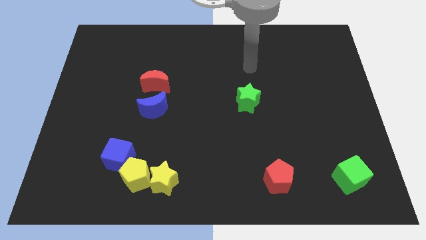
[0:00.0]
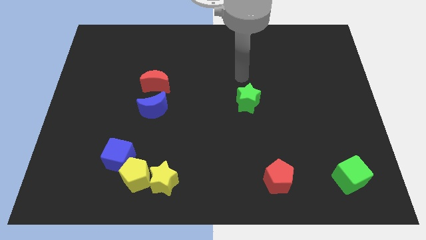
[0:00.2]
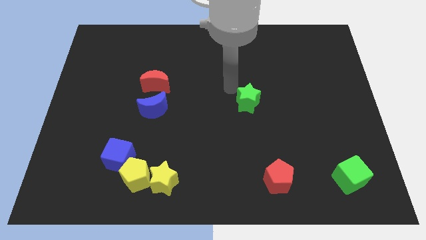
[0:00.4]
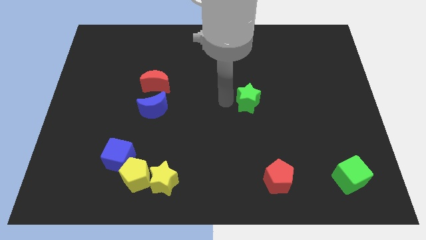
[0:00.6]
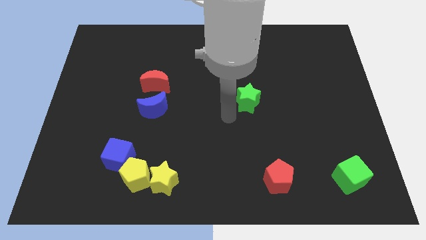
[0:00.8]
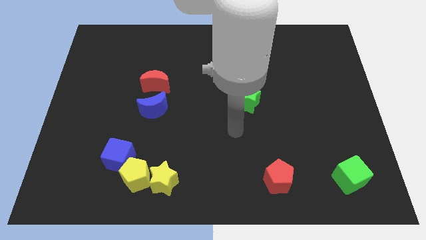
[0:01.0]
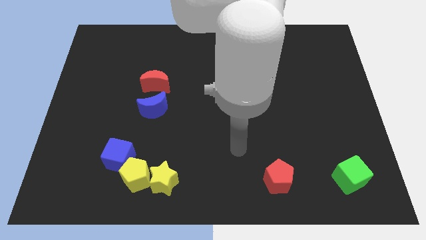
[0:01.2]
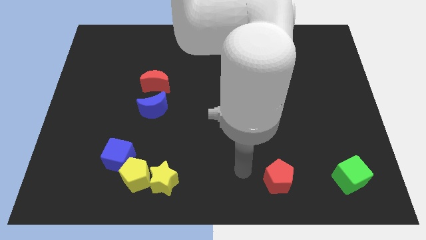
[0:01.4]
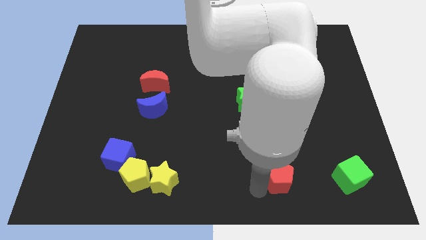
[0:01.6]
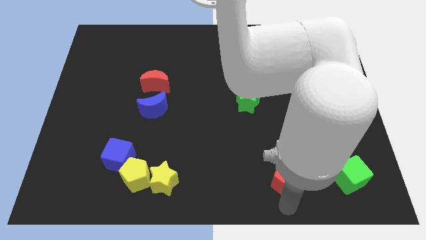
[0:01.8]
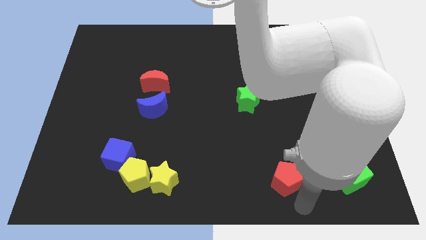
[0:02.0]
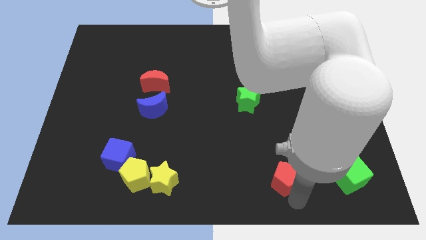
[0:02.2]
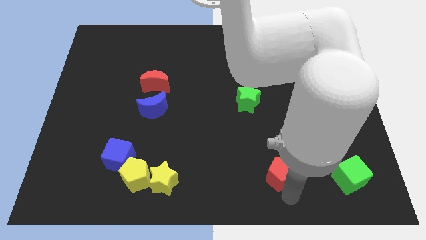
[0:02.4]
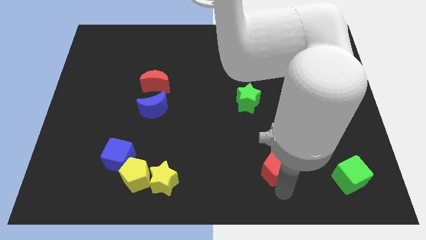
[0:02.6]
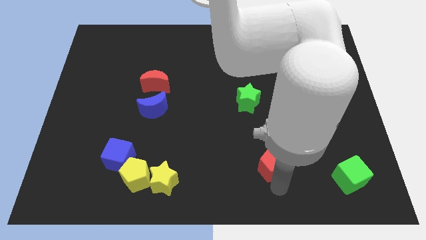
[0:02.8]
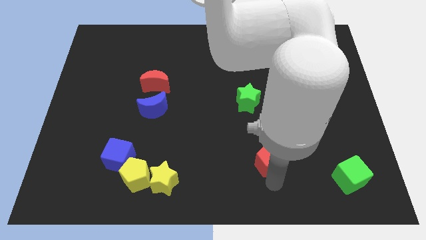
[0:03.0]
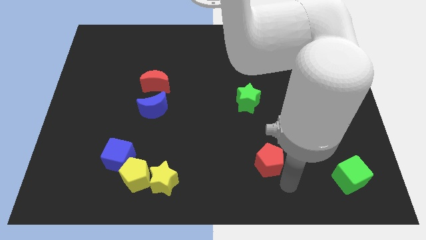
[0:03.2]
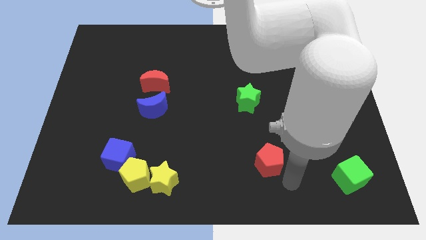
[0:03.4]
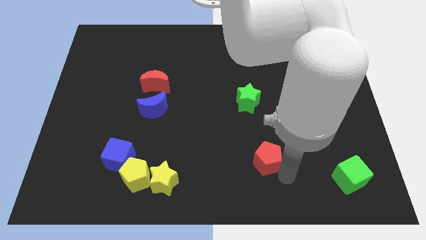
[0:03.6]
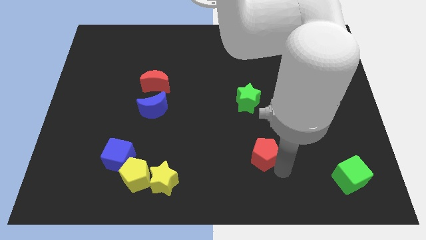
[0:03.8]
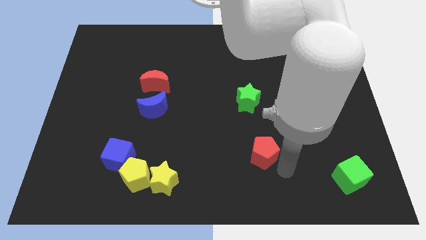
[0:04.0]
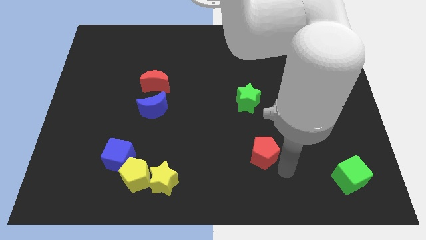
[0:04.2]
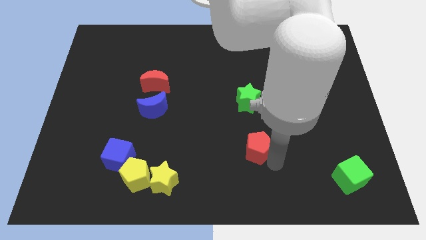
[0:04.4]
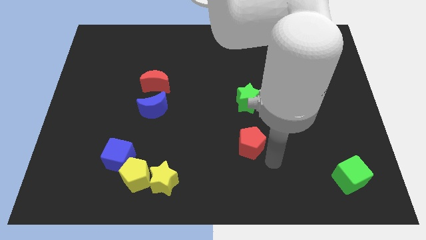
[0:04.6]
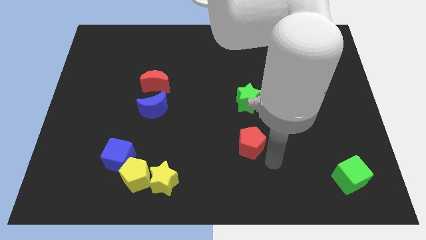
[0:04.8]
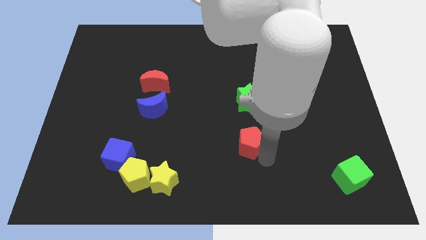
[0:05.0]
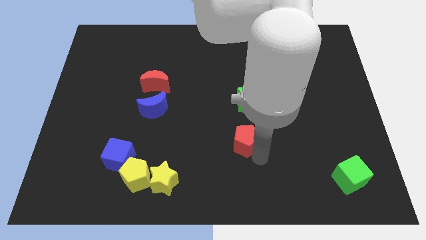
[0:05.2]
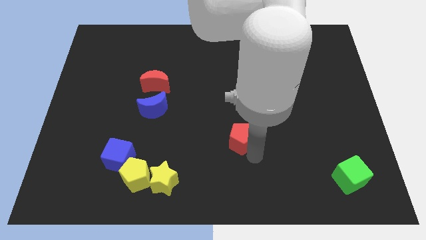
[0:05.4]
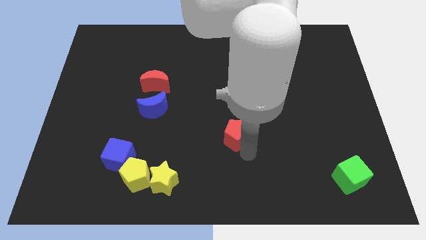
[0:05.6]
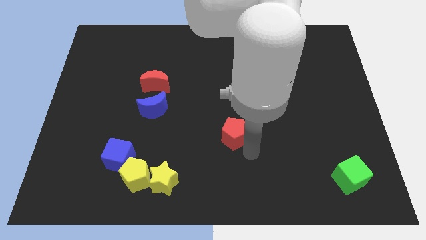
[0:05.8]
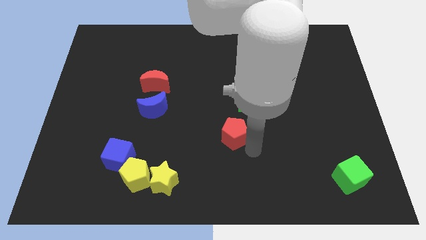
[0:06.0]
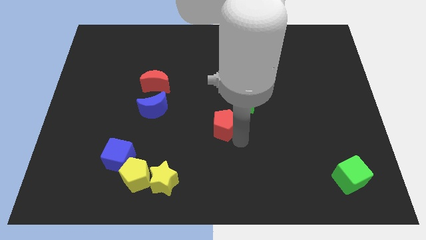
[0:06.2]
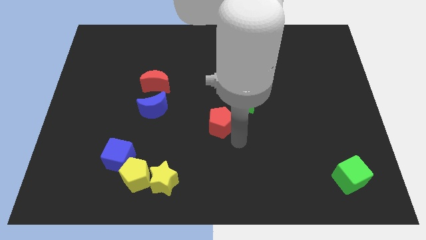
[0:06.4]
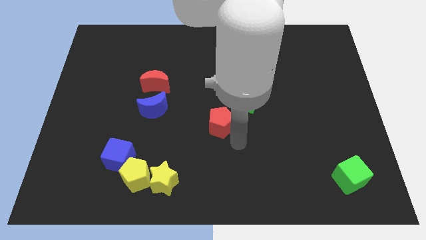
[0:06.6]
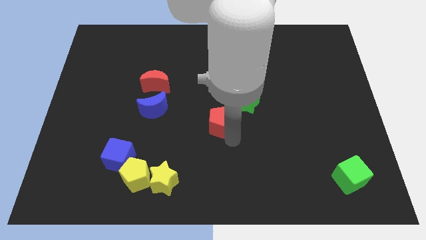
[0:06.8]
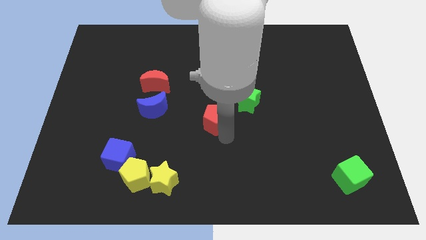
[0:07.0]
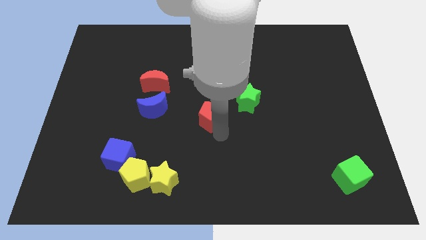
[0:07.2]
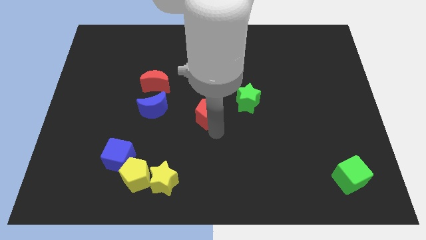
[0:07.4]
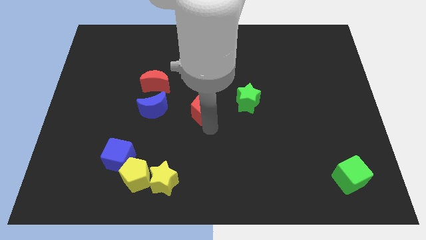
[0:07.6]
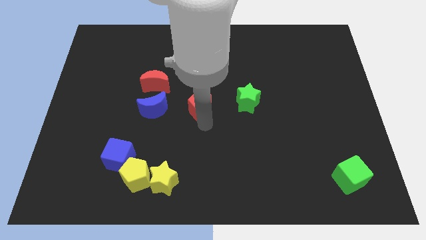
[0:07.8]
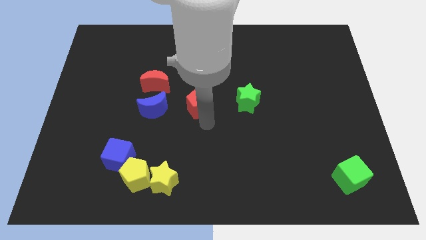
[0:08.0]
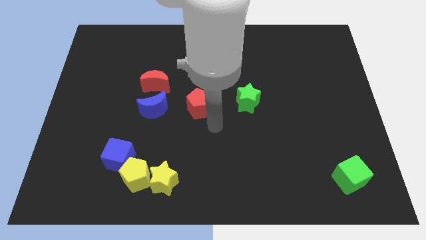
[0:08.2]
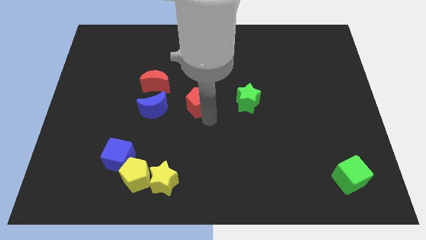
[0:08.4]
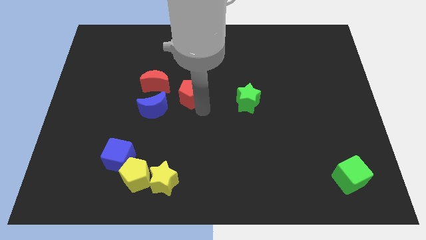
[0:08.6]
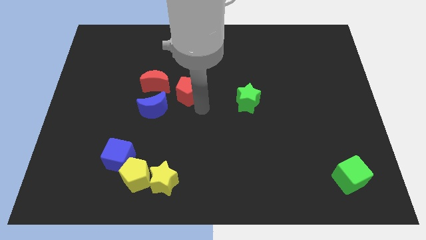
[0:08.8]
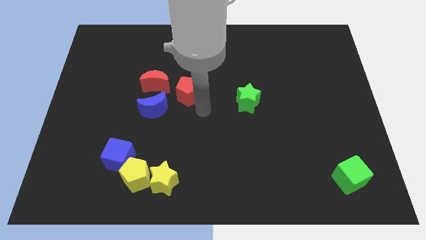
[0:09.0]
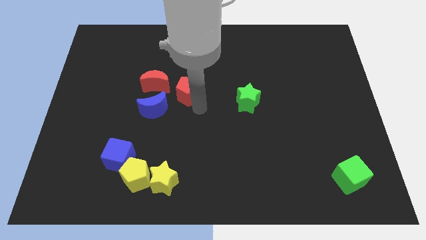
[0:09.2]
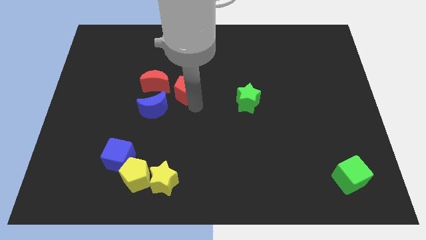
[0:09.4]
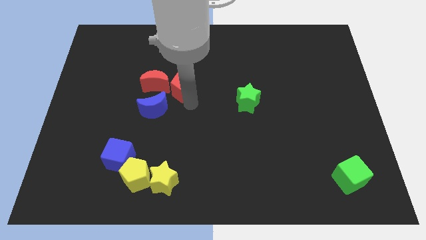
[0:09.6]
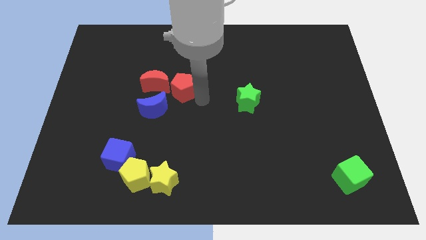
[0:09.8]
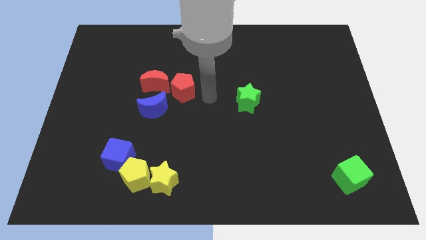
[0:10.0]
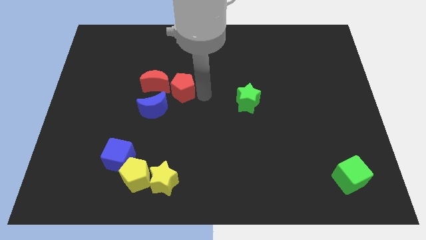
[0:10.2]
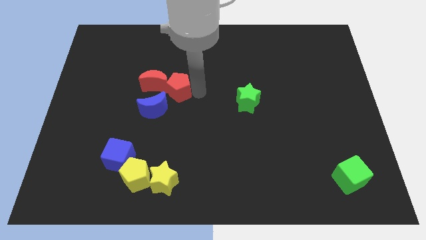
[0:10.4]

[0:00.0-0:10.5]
push the red pentagon next to the red moon

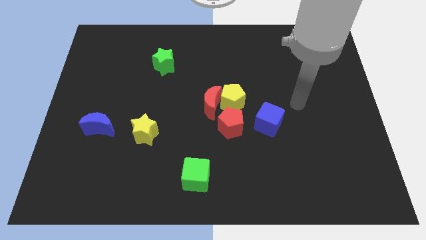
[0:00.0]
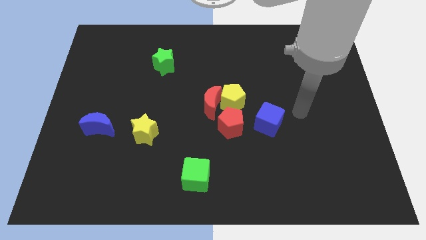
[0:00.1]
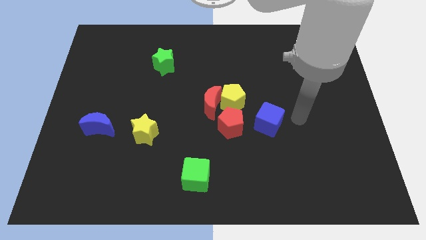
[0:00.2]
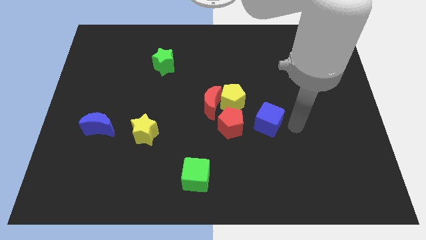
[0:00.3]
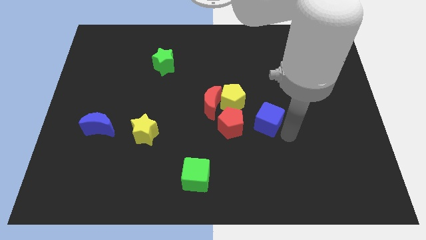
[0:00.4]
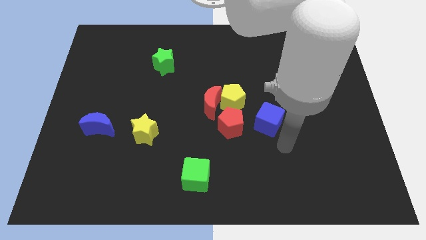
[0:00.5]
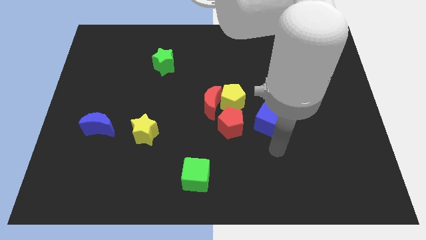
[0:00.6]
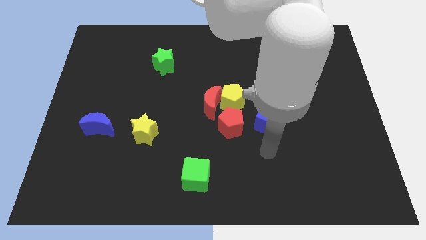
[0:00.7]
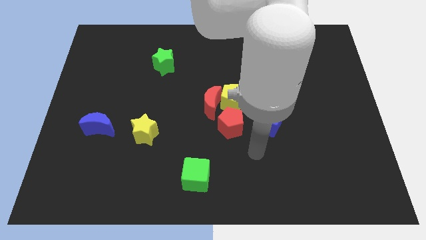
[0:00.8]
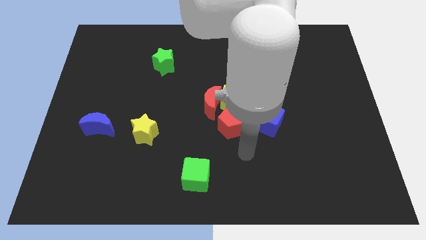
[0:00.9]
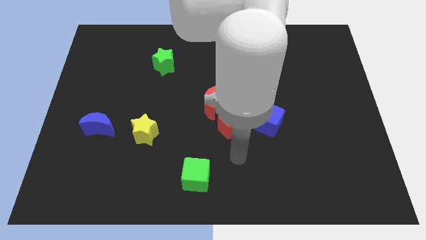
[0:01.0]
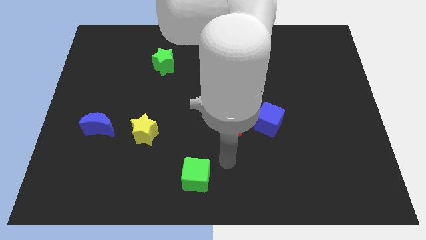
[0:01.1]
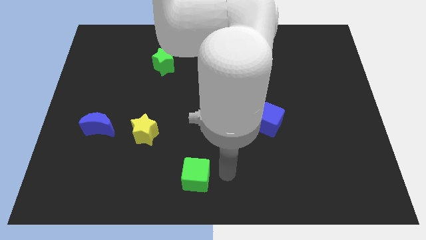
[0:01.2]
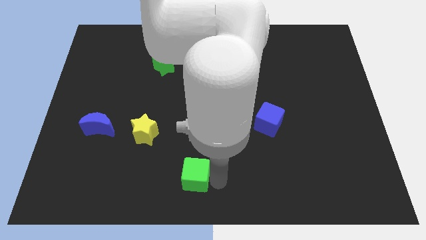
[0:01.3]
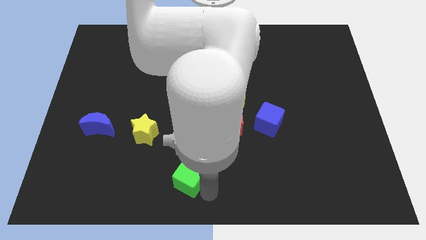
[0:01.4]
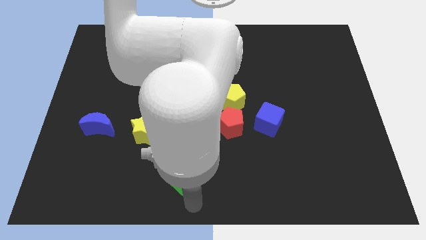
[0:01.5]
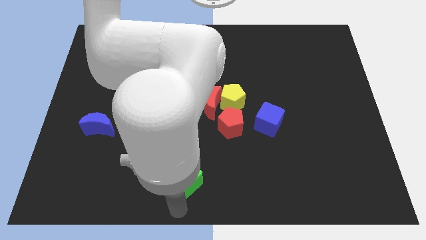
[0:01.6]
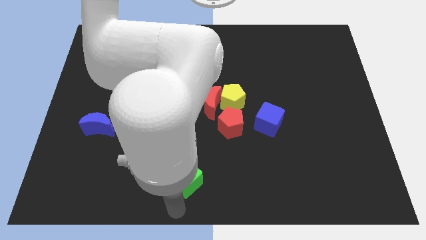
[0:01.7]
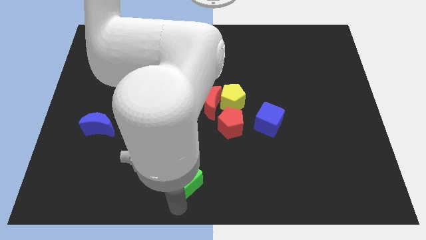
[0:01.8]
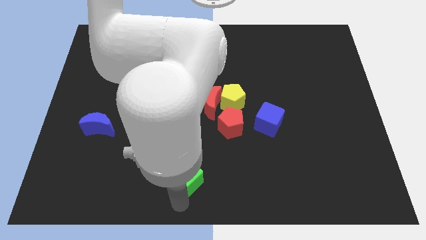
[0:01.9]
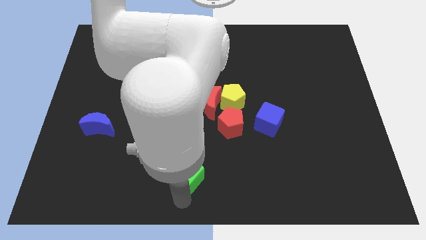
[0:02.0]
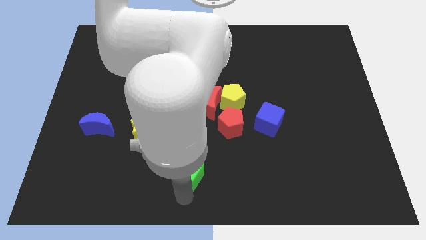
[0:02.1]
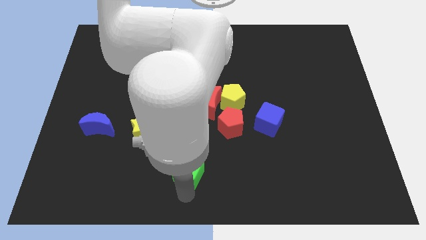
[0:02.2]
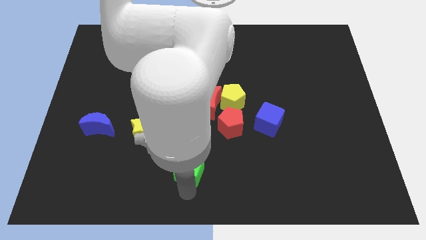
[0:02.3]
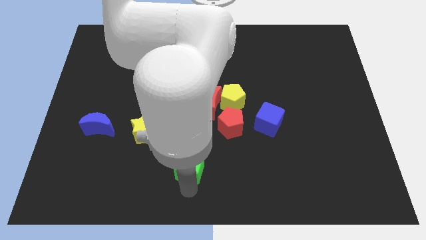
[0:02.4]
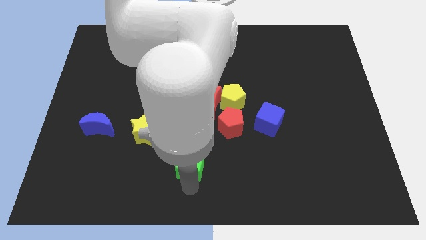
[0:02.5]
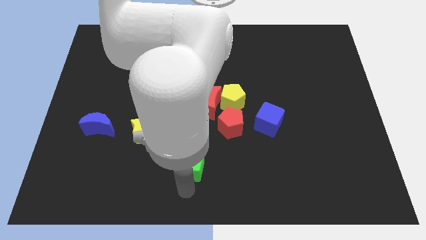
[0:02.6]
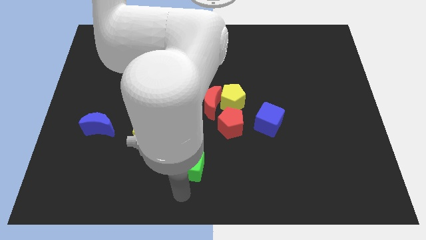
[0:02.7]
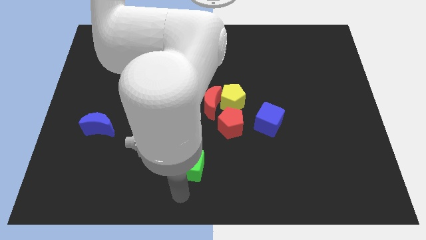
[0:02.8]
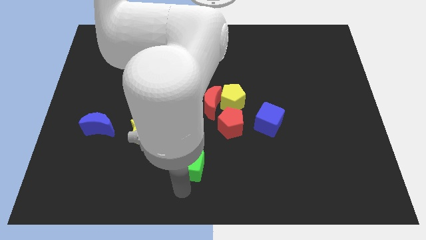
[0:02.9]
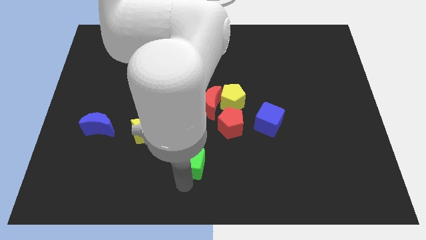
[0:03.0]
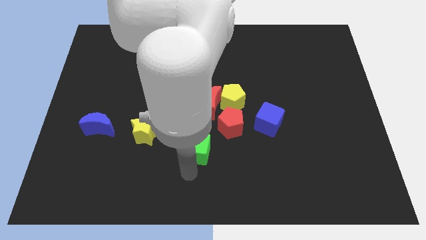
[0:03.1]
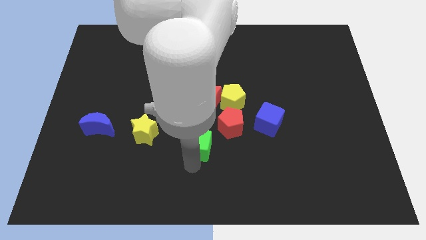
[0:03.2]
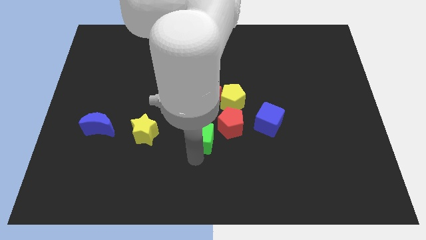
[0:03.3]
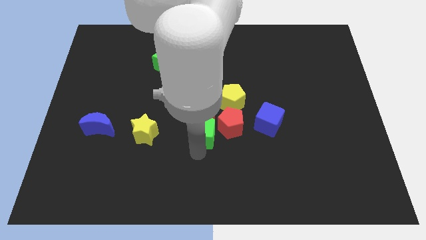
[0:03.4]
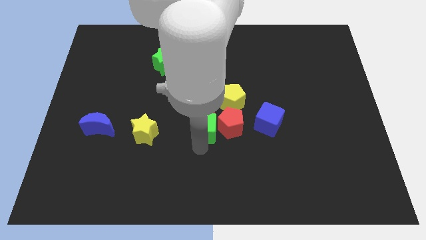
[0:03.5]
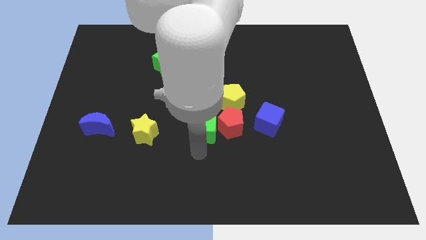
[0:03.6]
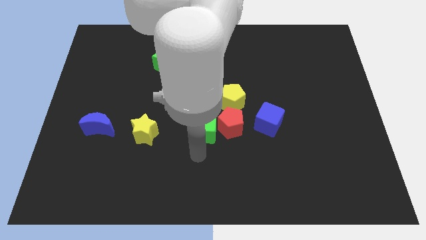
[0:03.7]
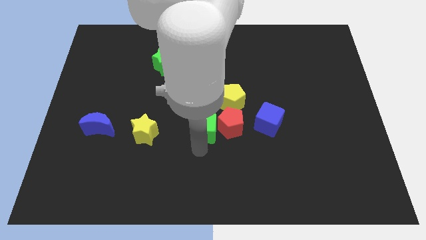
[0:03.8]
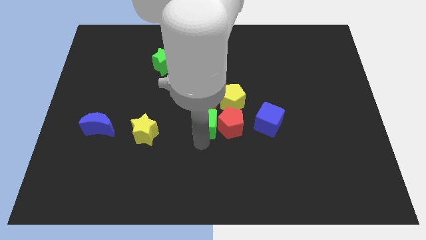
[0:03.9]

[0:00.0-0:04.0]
move the green cube next to the red moon
